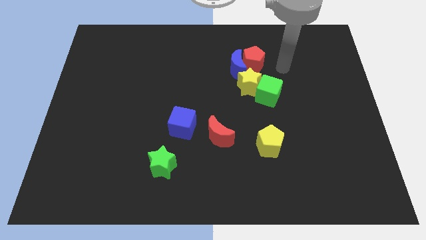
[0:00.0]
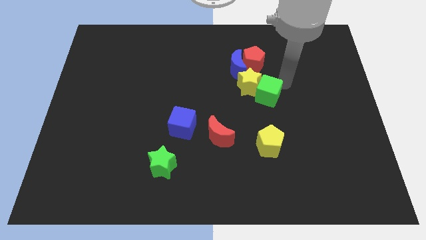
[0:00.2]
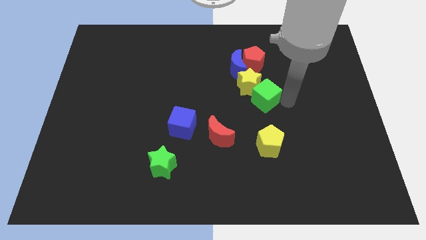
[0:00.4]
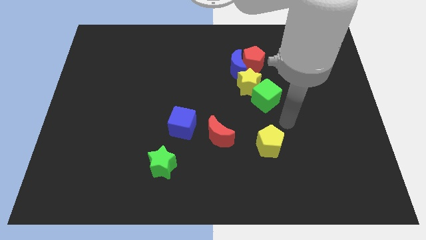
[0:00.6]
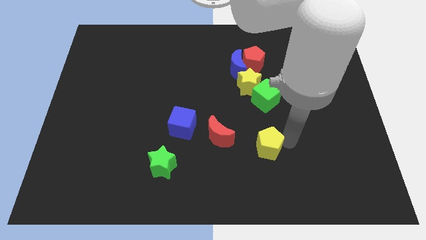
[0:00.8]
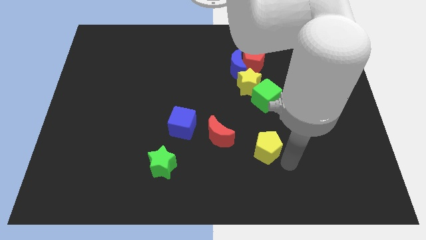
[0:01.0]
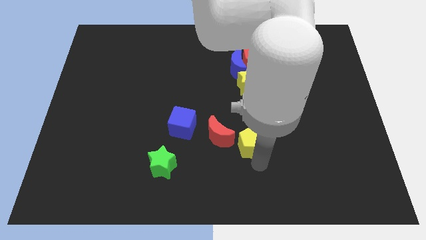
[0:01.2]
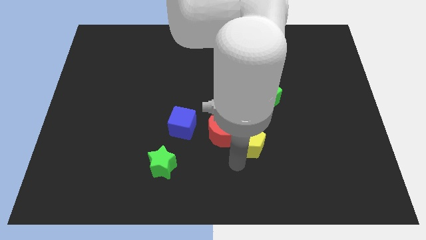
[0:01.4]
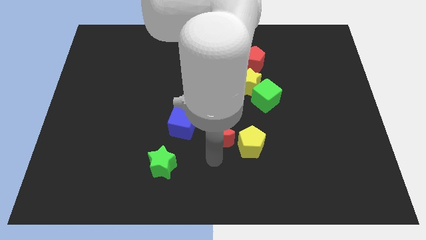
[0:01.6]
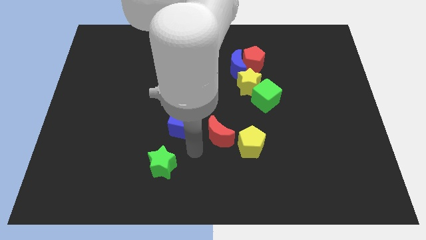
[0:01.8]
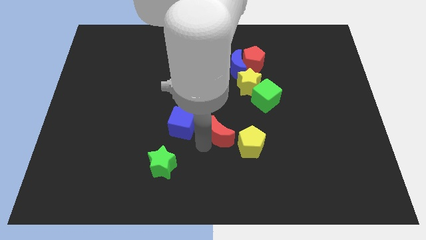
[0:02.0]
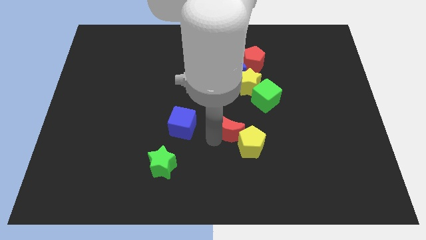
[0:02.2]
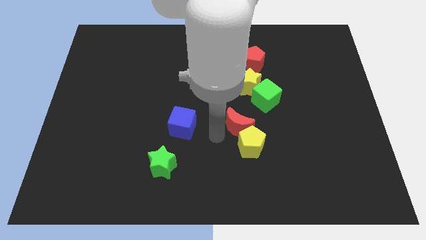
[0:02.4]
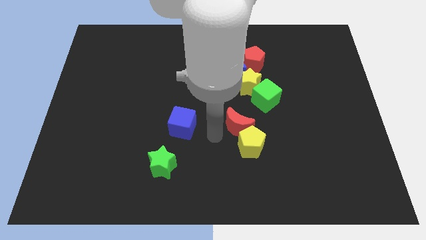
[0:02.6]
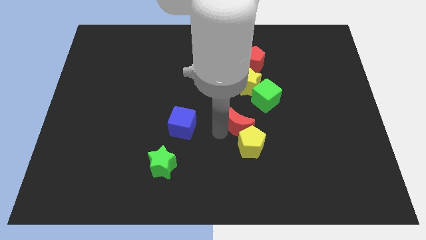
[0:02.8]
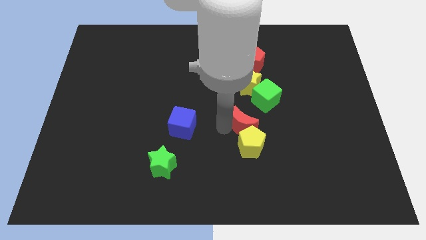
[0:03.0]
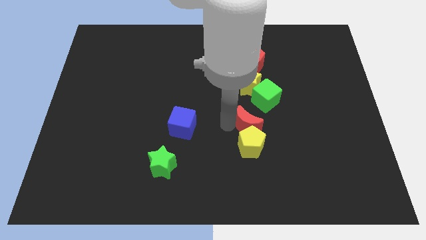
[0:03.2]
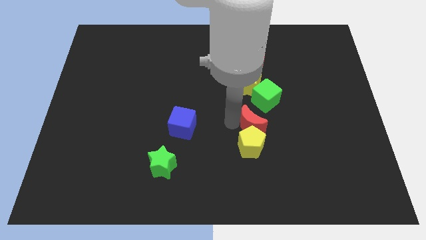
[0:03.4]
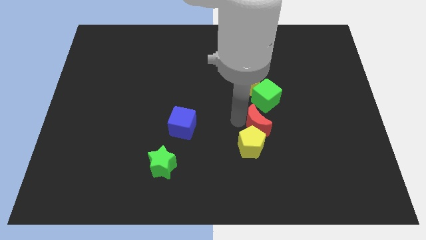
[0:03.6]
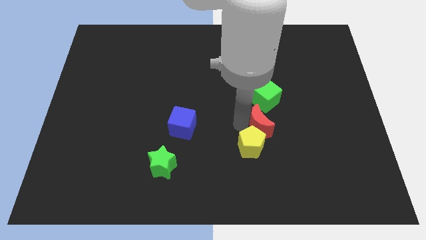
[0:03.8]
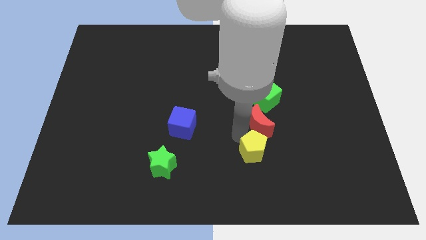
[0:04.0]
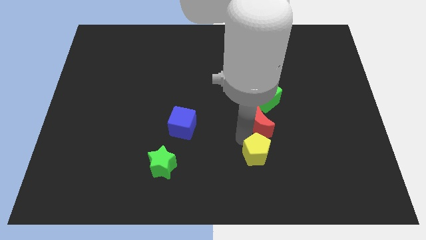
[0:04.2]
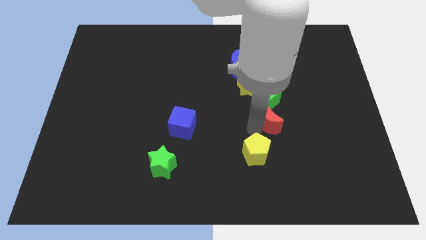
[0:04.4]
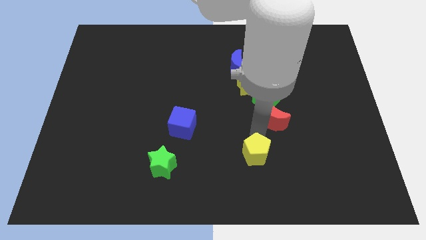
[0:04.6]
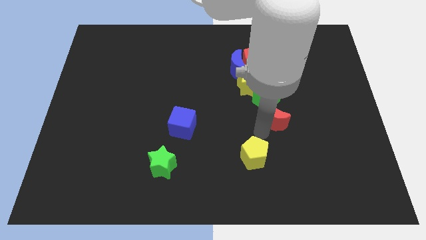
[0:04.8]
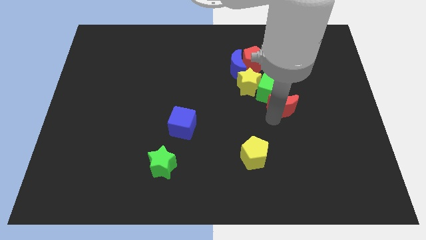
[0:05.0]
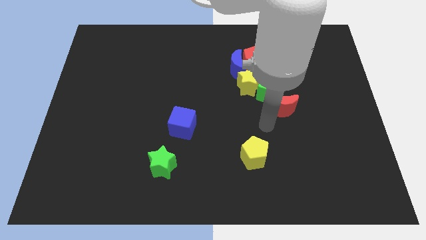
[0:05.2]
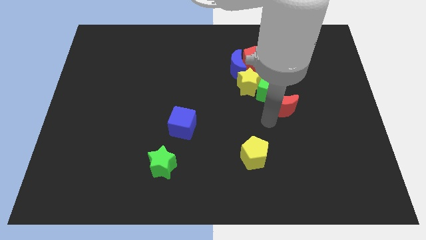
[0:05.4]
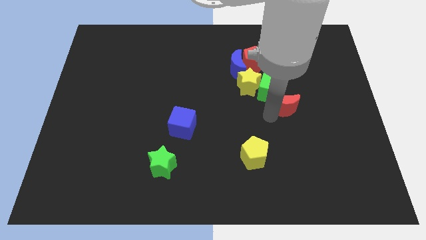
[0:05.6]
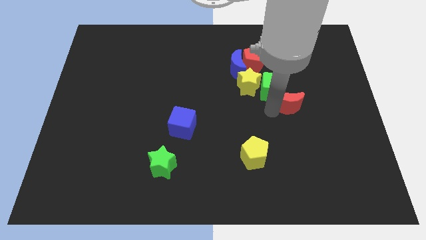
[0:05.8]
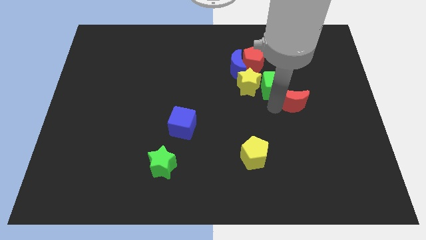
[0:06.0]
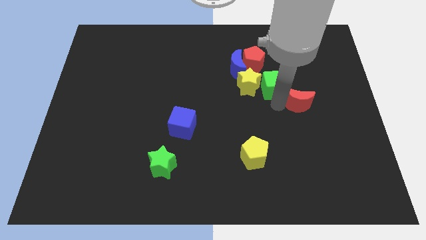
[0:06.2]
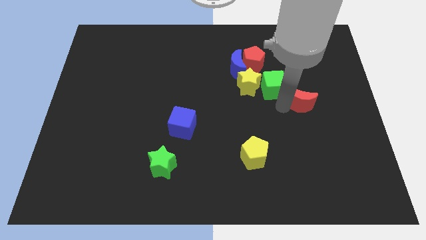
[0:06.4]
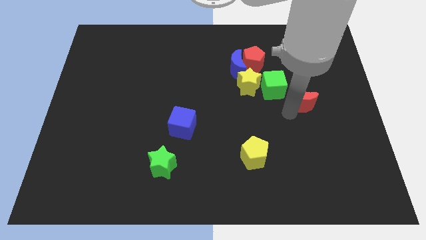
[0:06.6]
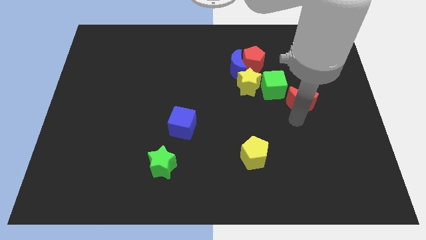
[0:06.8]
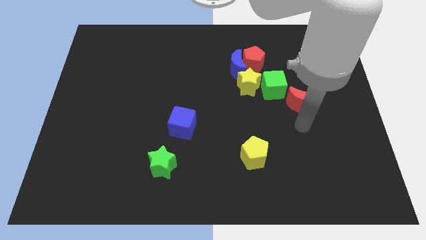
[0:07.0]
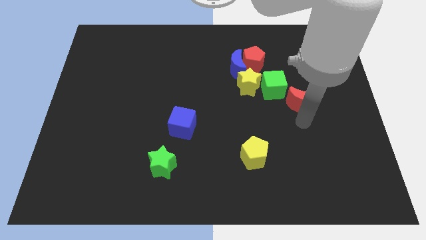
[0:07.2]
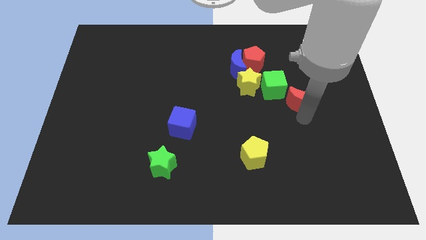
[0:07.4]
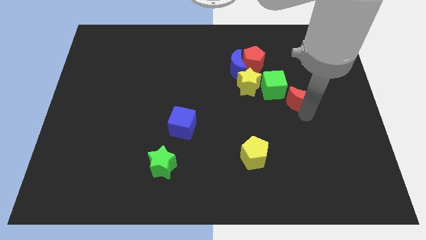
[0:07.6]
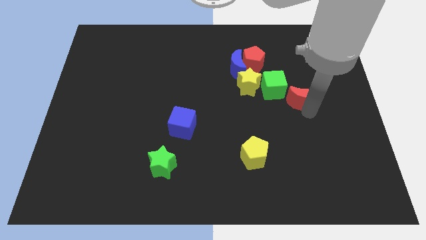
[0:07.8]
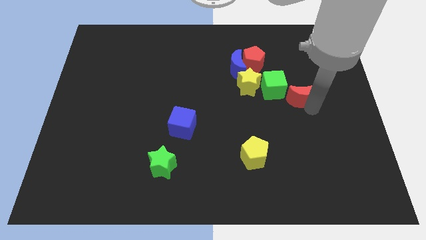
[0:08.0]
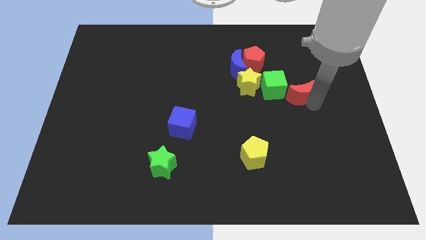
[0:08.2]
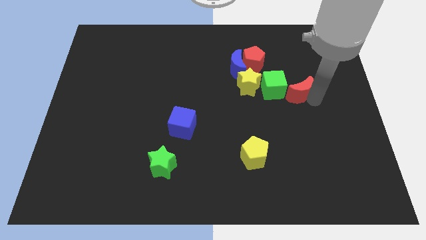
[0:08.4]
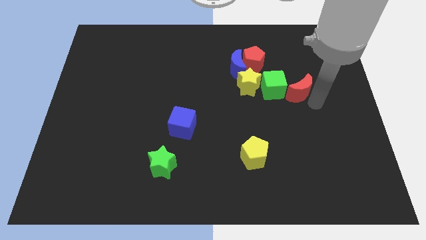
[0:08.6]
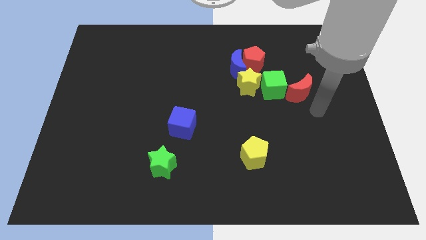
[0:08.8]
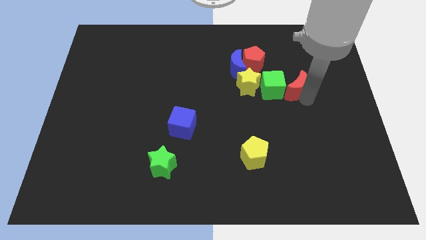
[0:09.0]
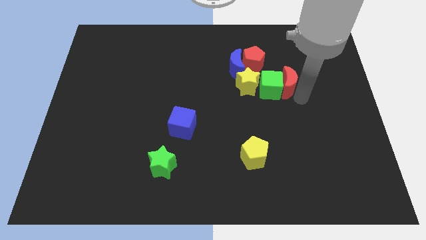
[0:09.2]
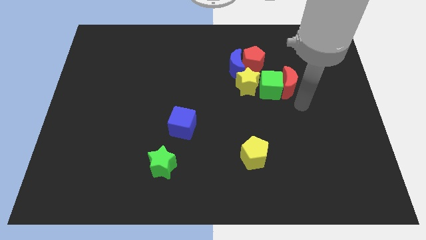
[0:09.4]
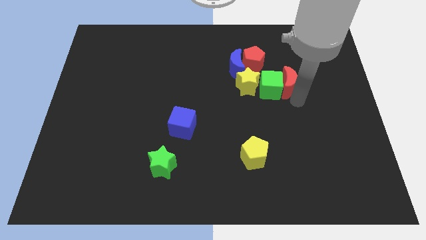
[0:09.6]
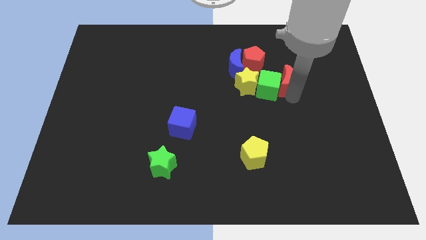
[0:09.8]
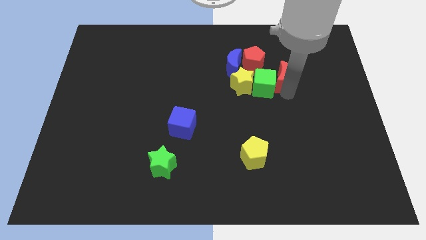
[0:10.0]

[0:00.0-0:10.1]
slide the red moon to the right of the blue moon

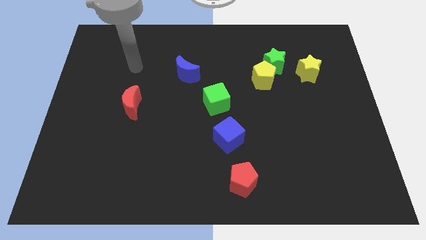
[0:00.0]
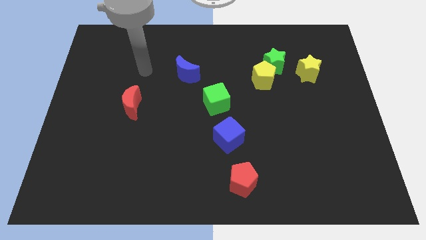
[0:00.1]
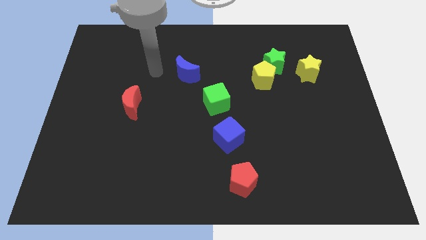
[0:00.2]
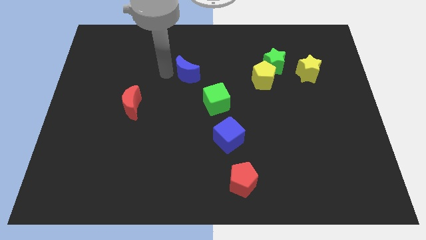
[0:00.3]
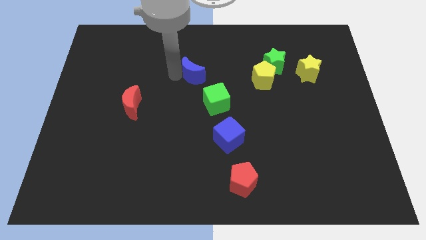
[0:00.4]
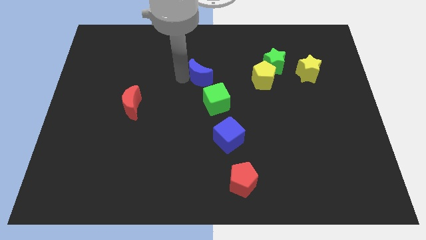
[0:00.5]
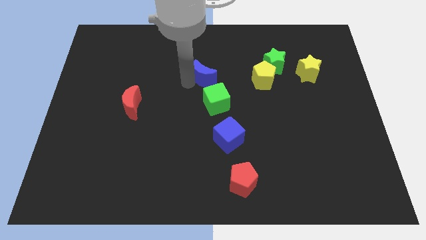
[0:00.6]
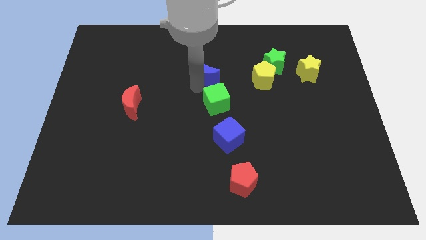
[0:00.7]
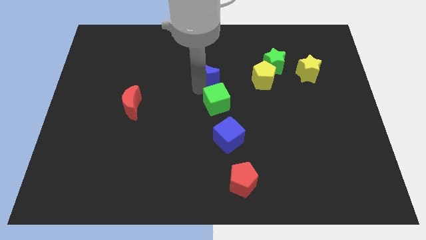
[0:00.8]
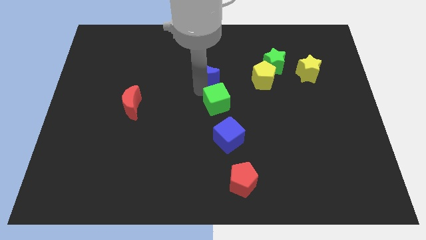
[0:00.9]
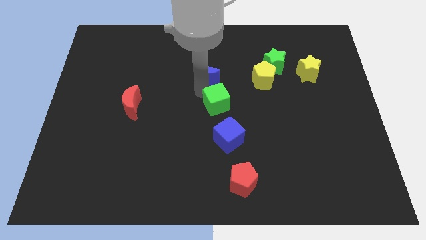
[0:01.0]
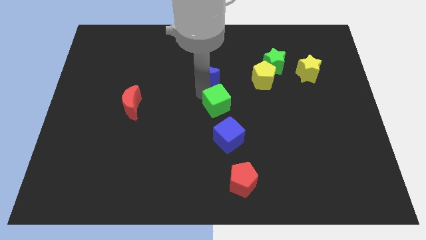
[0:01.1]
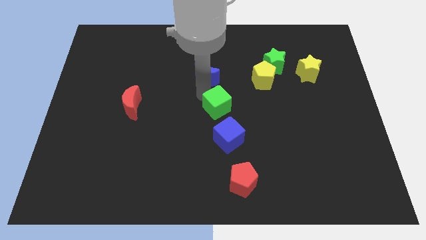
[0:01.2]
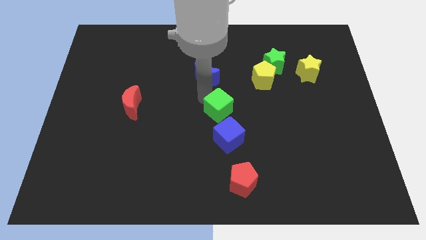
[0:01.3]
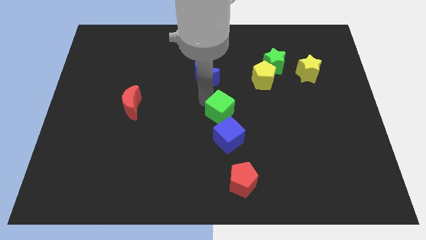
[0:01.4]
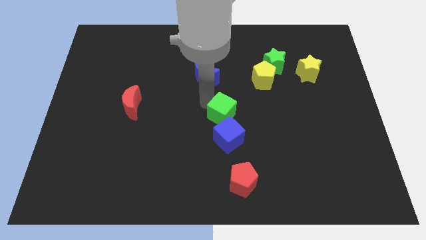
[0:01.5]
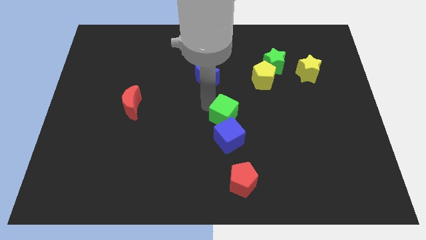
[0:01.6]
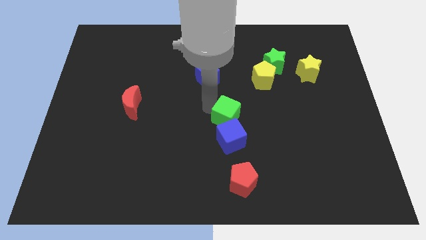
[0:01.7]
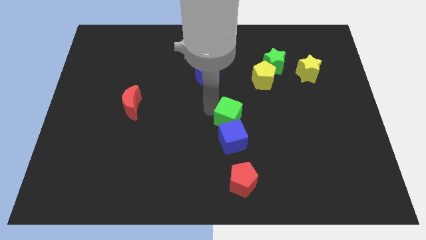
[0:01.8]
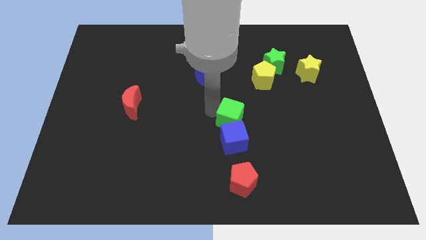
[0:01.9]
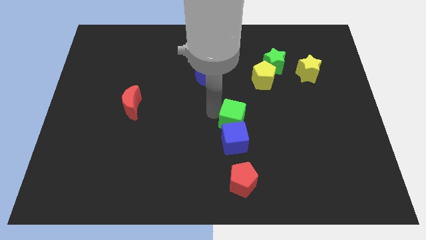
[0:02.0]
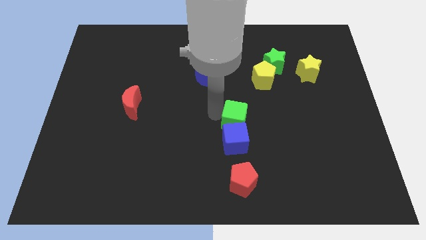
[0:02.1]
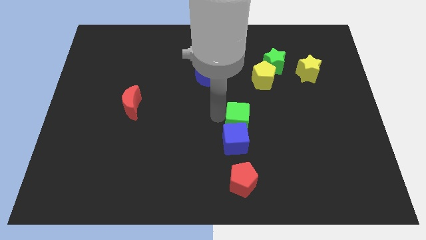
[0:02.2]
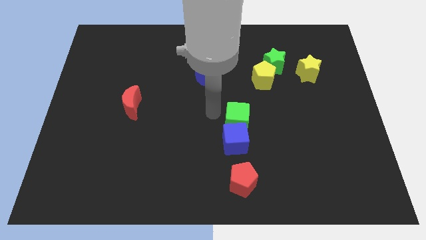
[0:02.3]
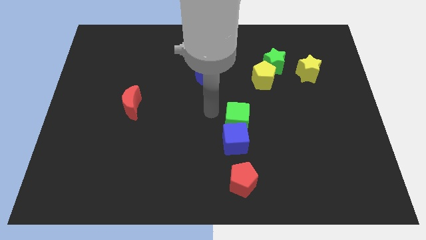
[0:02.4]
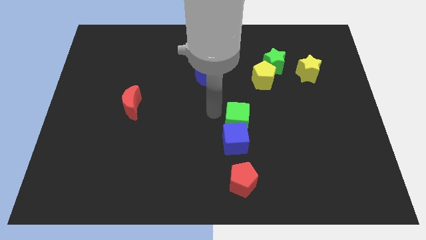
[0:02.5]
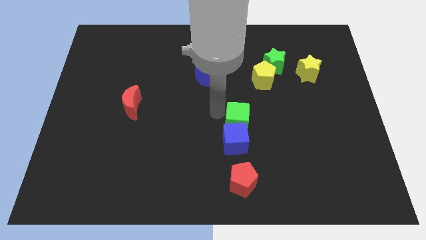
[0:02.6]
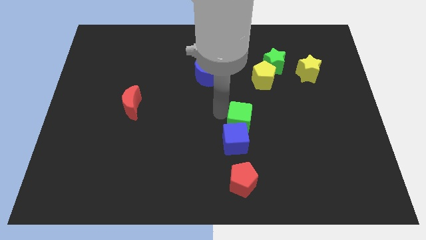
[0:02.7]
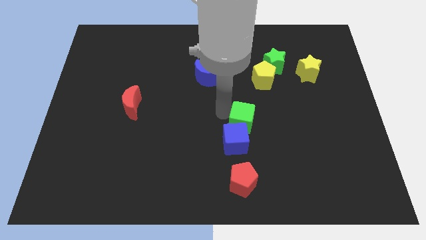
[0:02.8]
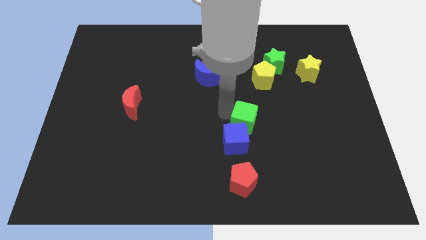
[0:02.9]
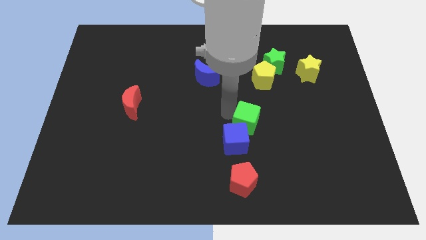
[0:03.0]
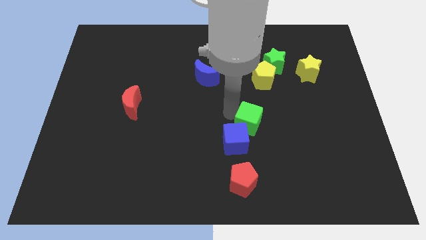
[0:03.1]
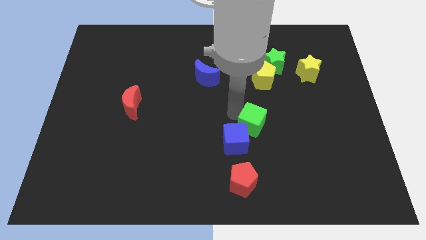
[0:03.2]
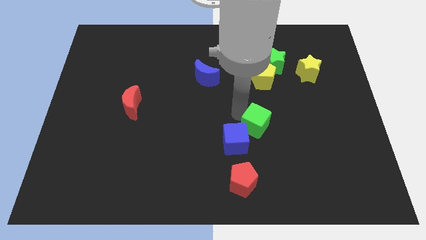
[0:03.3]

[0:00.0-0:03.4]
slide the green cube to the right side of the blue cube
